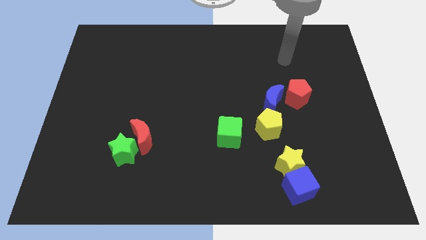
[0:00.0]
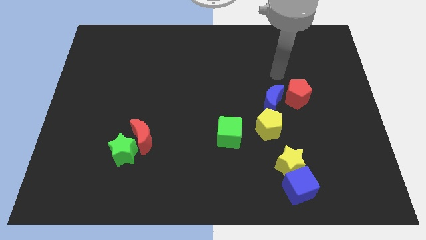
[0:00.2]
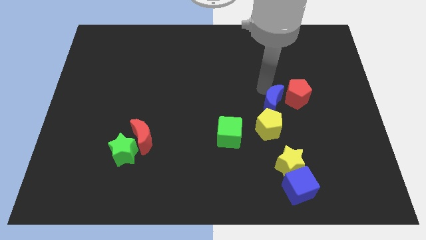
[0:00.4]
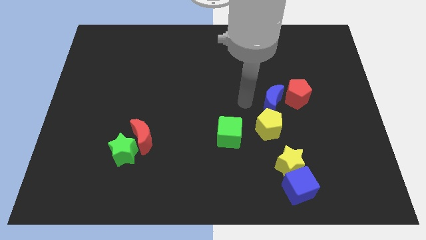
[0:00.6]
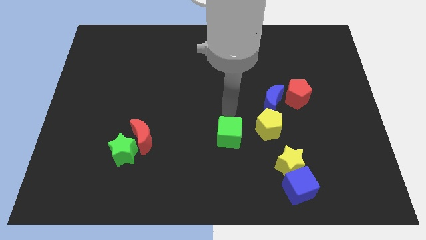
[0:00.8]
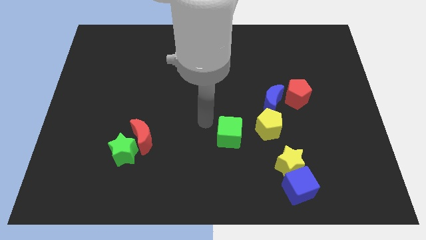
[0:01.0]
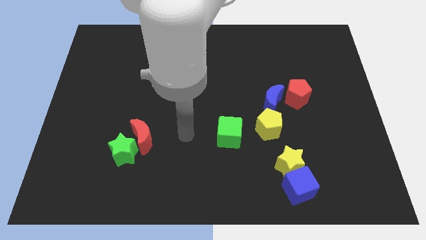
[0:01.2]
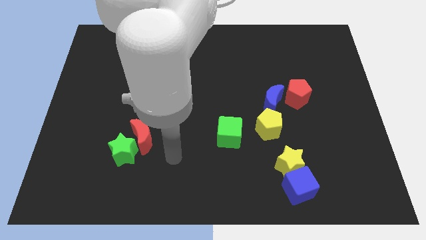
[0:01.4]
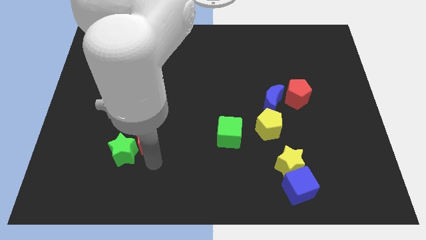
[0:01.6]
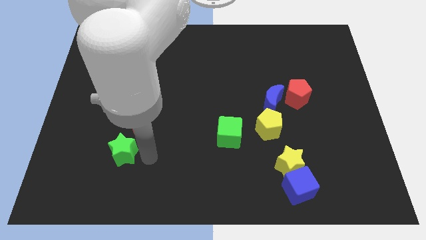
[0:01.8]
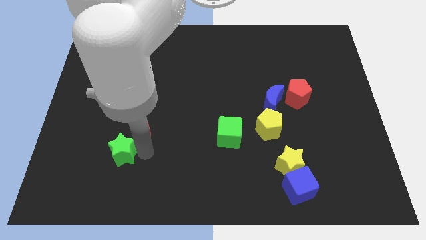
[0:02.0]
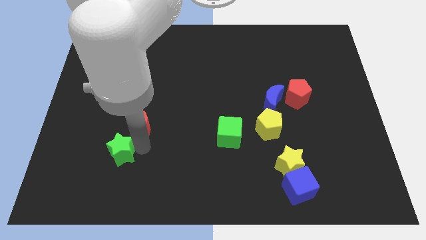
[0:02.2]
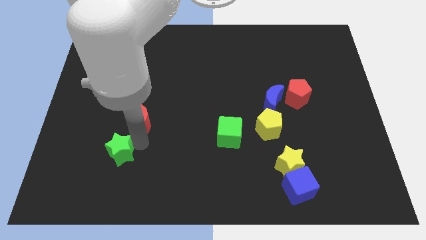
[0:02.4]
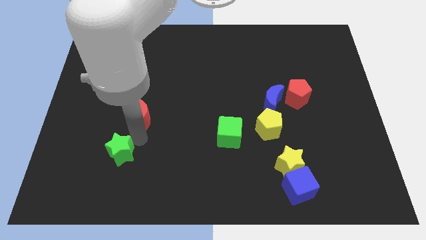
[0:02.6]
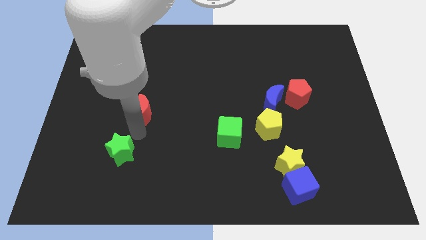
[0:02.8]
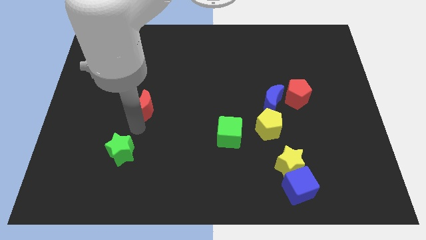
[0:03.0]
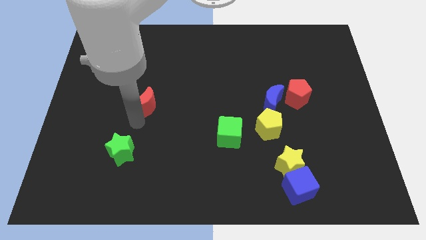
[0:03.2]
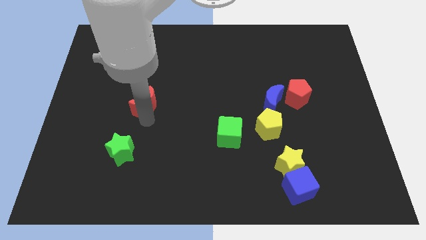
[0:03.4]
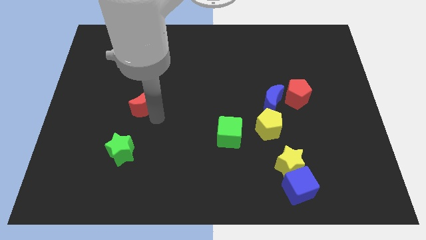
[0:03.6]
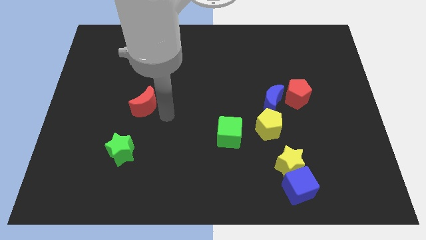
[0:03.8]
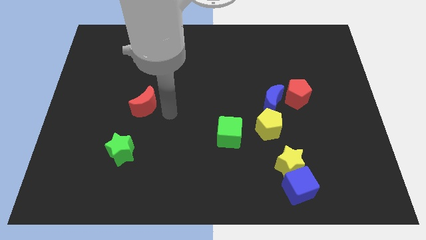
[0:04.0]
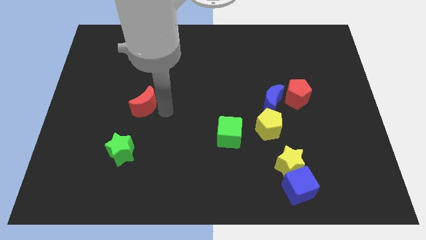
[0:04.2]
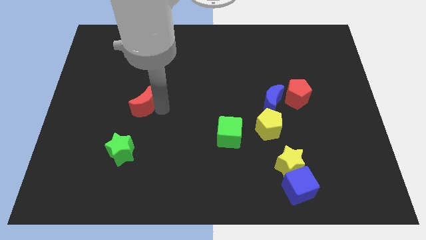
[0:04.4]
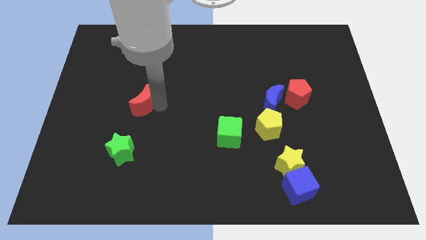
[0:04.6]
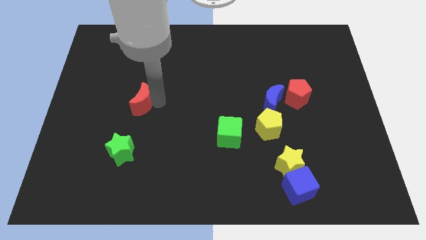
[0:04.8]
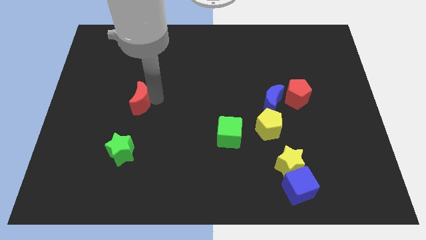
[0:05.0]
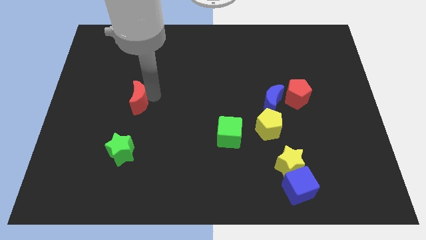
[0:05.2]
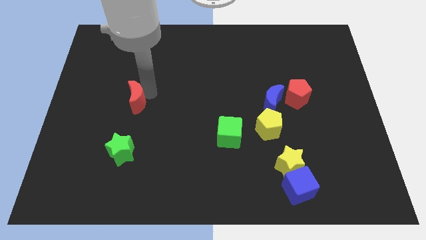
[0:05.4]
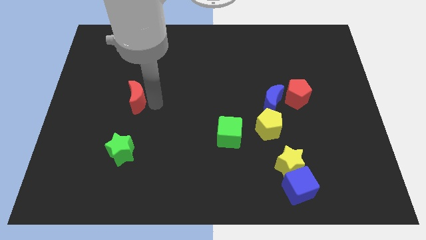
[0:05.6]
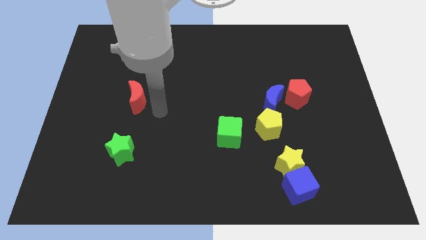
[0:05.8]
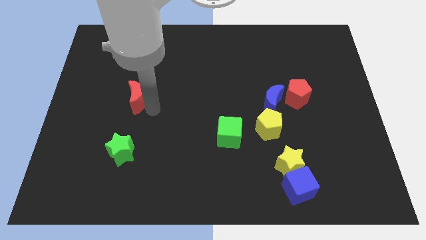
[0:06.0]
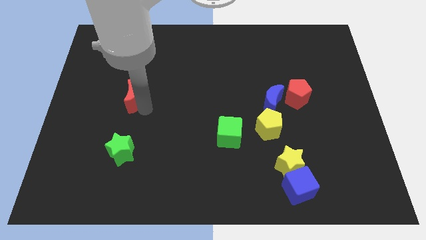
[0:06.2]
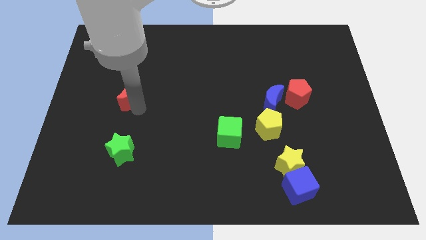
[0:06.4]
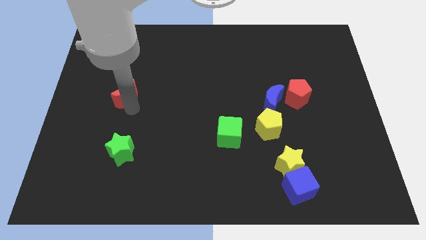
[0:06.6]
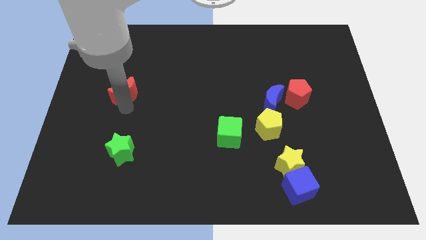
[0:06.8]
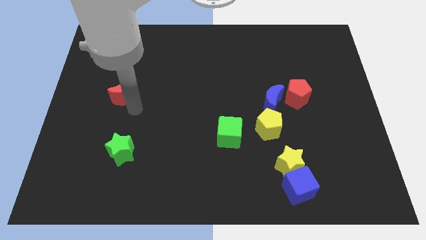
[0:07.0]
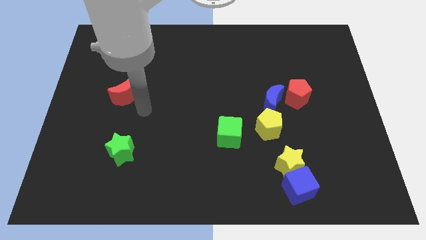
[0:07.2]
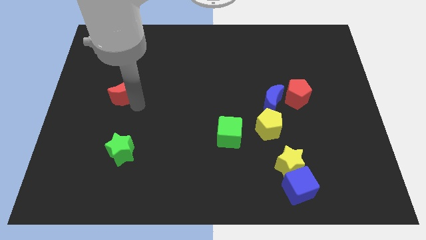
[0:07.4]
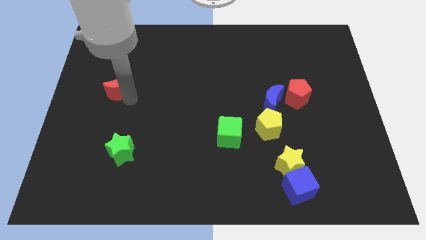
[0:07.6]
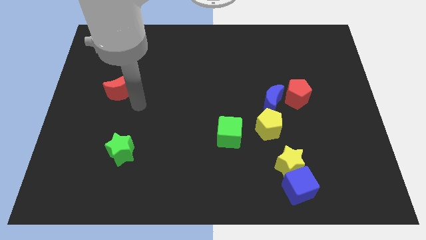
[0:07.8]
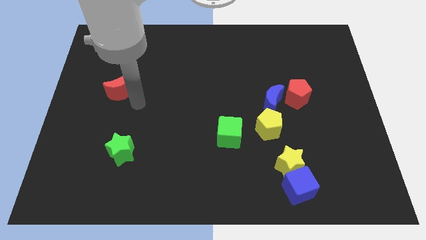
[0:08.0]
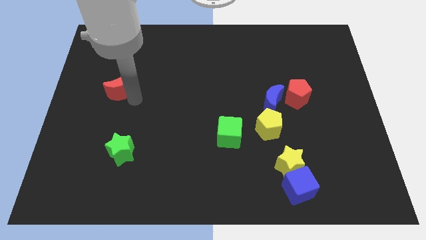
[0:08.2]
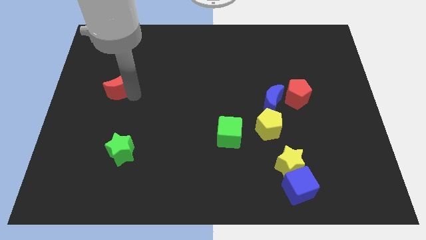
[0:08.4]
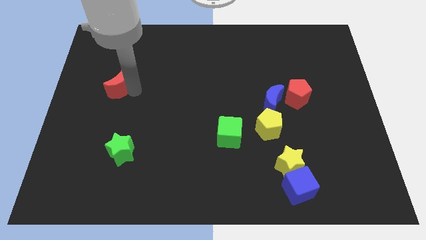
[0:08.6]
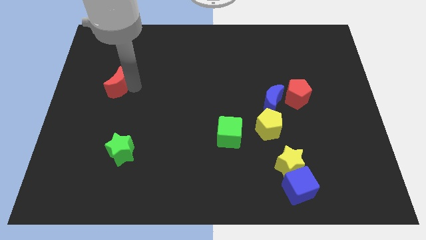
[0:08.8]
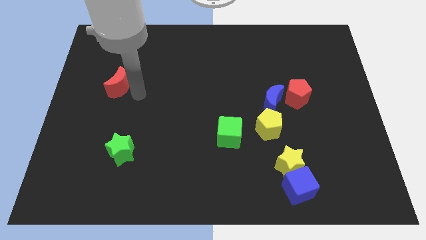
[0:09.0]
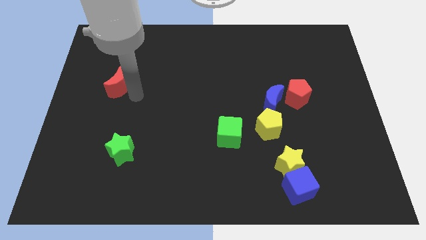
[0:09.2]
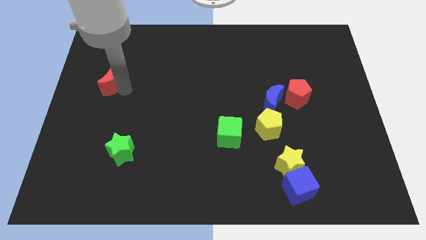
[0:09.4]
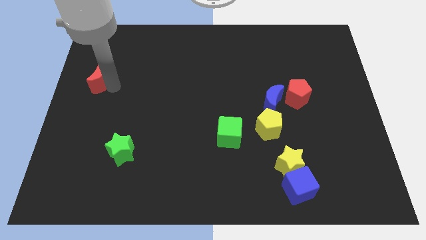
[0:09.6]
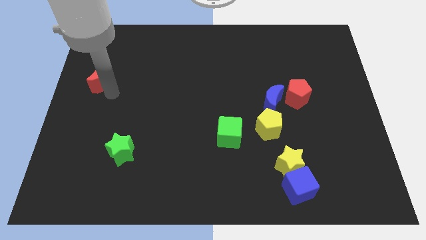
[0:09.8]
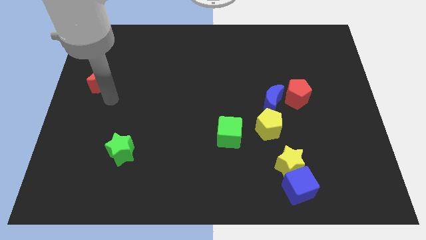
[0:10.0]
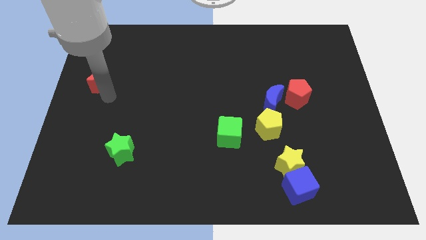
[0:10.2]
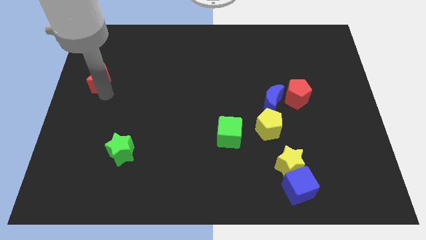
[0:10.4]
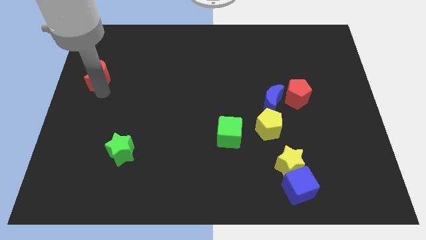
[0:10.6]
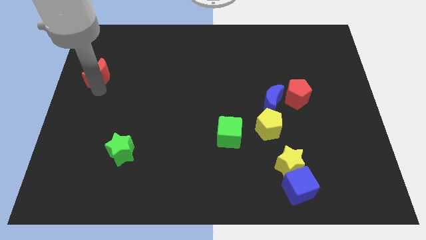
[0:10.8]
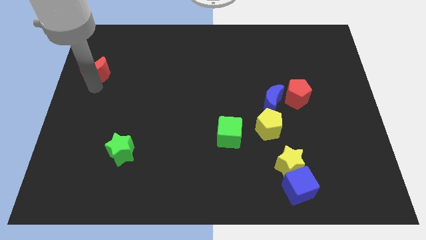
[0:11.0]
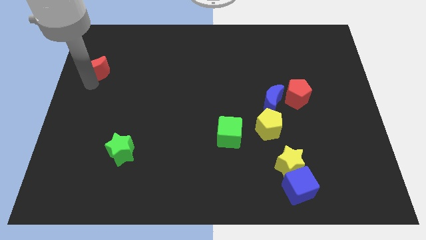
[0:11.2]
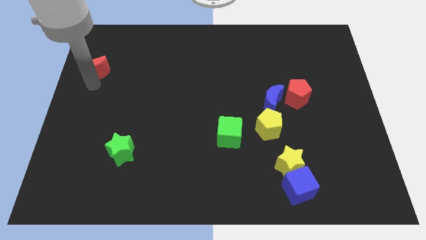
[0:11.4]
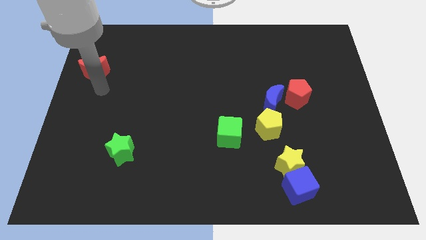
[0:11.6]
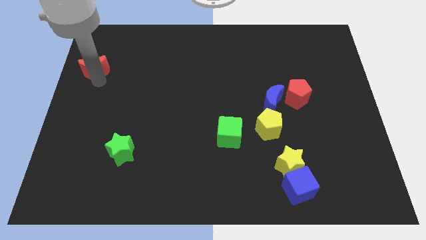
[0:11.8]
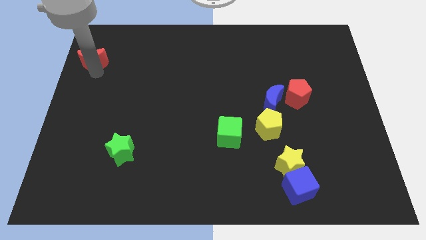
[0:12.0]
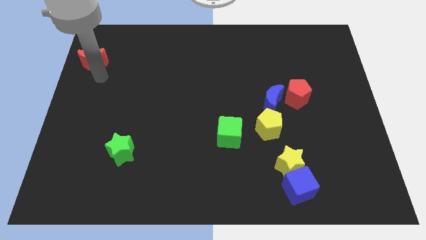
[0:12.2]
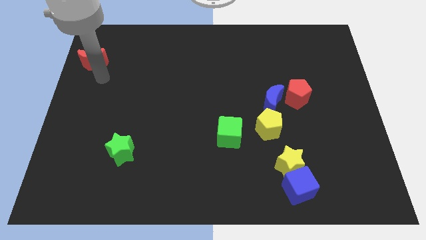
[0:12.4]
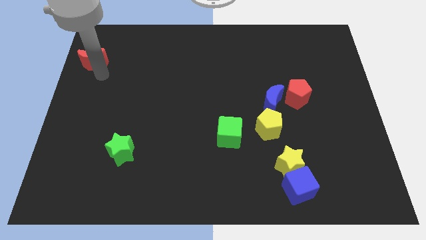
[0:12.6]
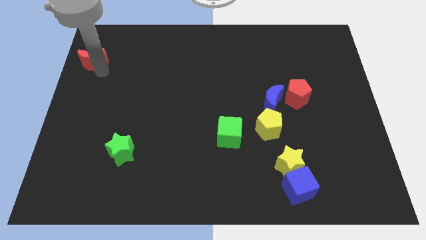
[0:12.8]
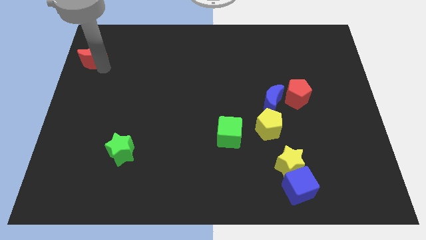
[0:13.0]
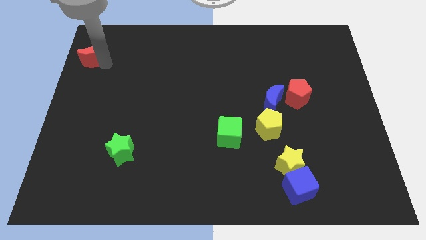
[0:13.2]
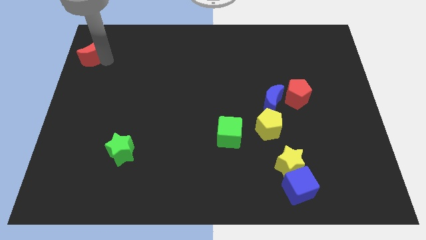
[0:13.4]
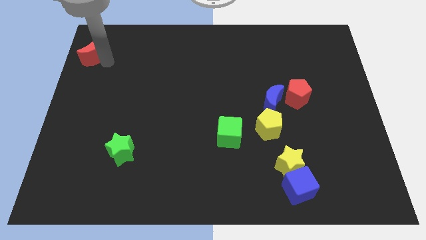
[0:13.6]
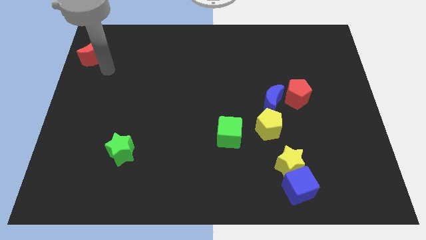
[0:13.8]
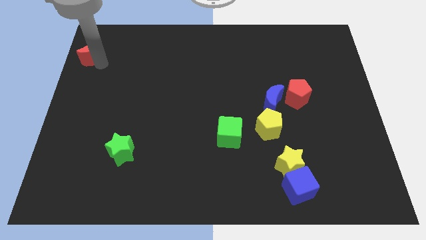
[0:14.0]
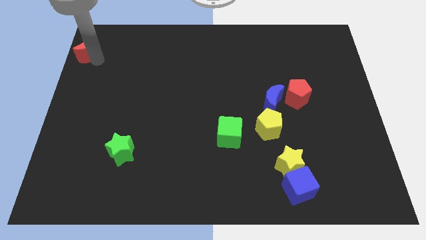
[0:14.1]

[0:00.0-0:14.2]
move the red moon to the top left corner

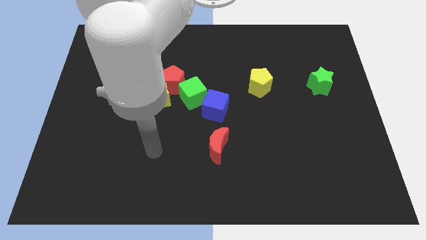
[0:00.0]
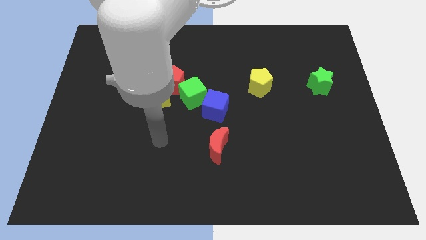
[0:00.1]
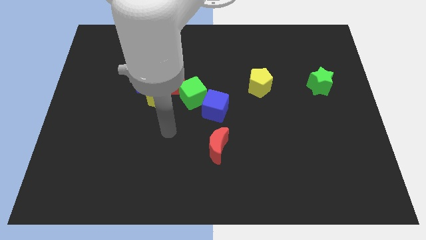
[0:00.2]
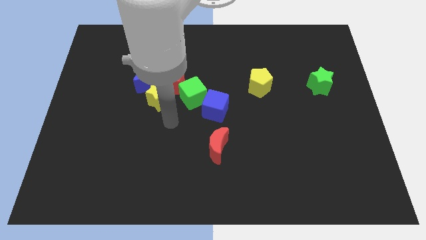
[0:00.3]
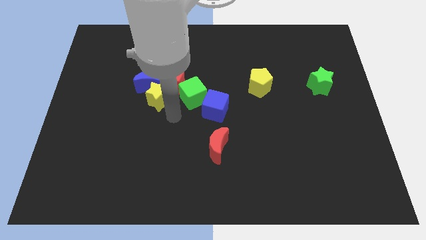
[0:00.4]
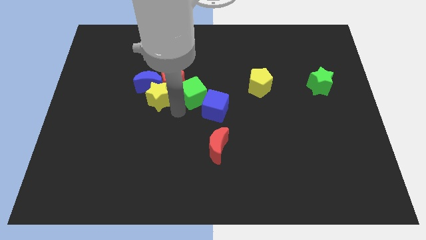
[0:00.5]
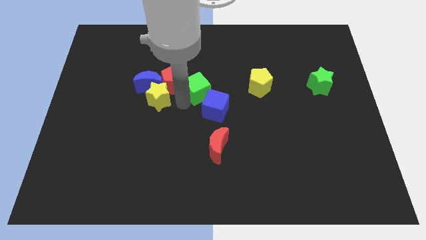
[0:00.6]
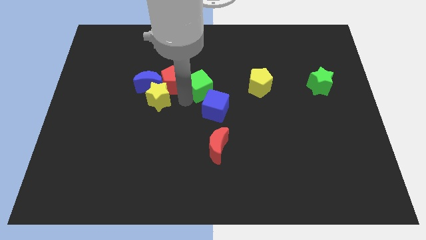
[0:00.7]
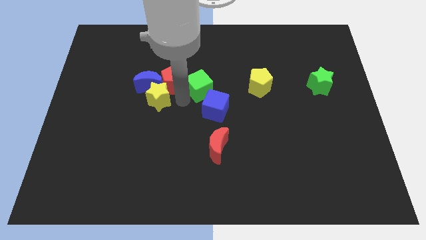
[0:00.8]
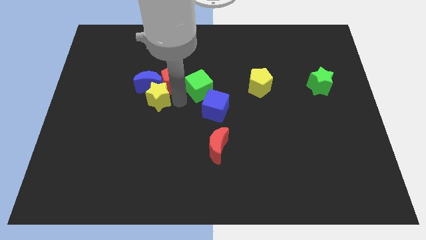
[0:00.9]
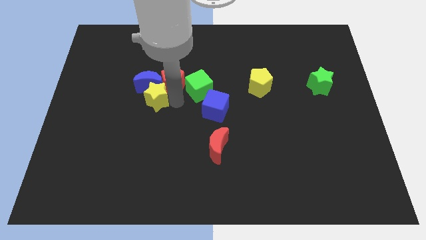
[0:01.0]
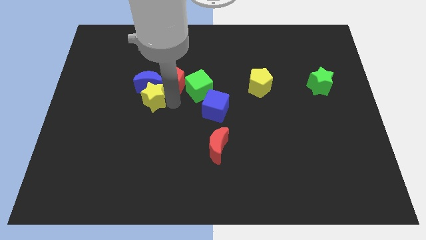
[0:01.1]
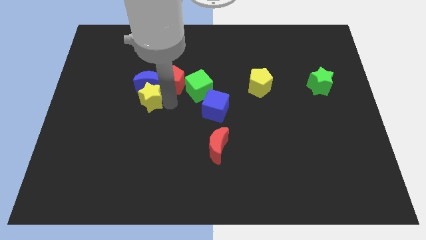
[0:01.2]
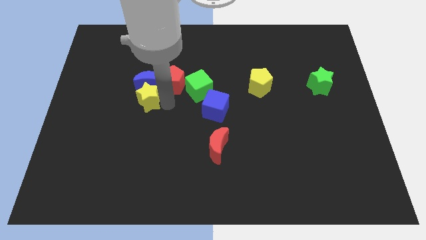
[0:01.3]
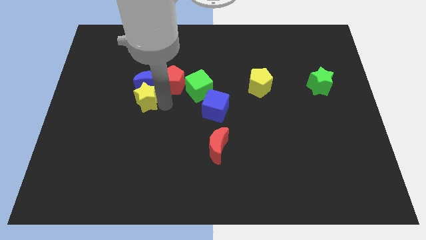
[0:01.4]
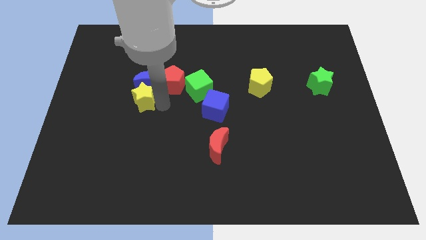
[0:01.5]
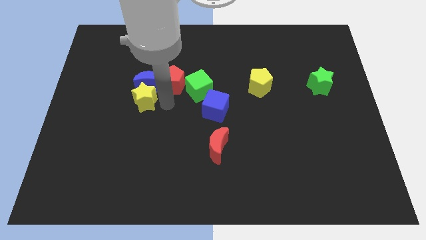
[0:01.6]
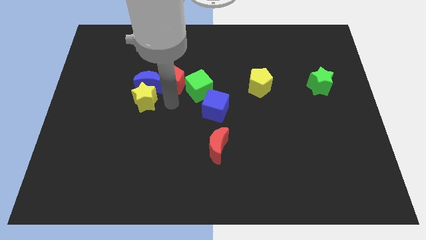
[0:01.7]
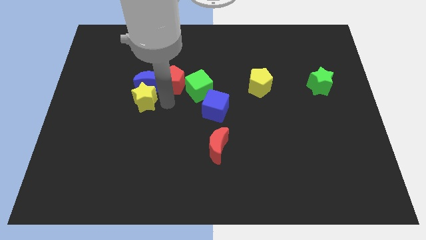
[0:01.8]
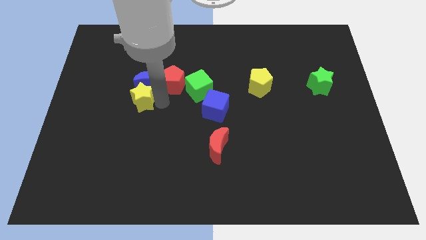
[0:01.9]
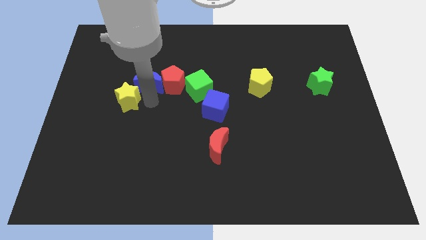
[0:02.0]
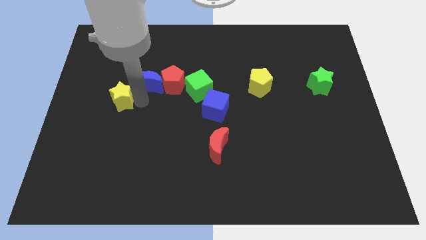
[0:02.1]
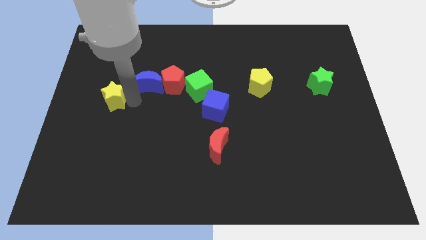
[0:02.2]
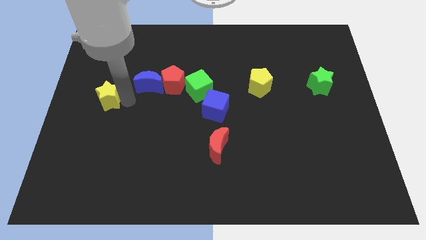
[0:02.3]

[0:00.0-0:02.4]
push the yellow star to the left side
